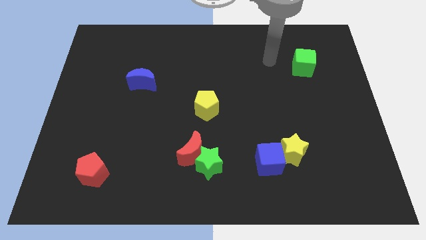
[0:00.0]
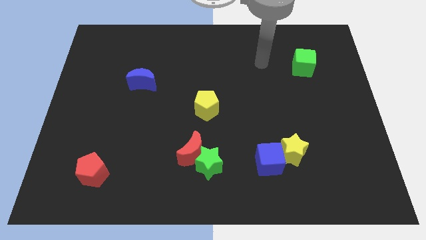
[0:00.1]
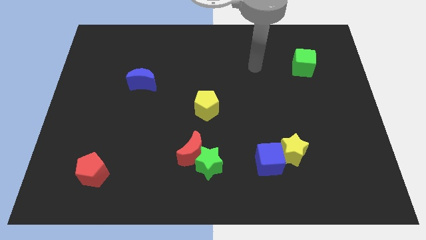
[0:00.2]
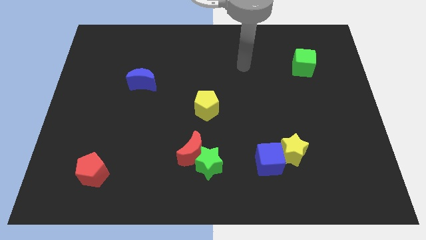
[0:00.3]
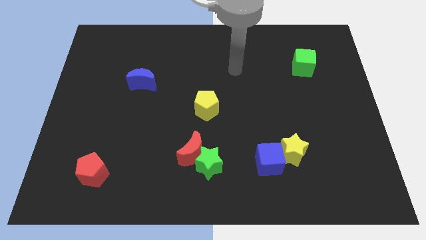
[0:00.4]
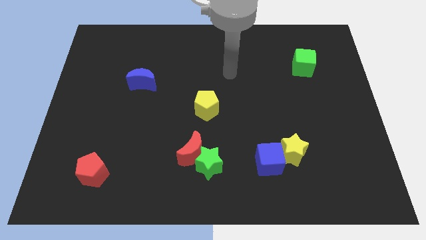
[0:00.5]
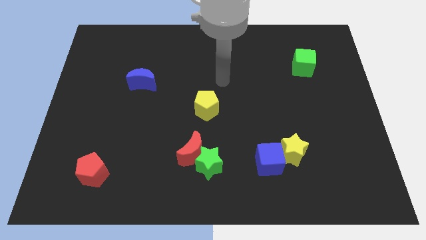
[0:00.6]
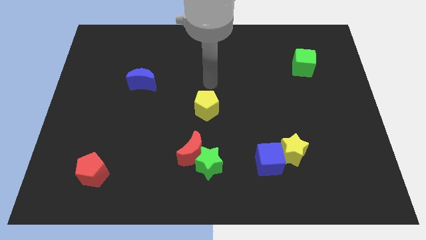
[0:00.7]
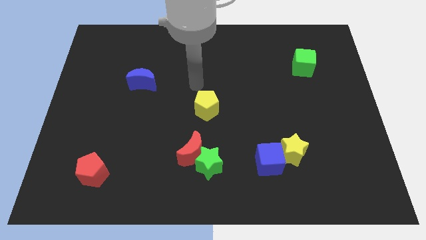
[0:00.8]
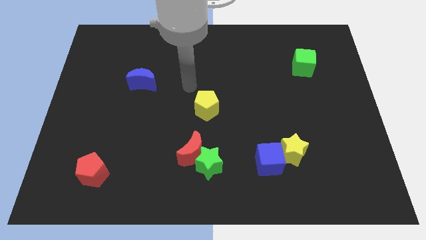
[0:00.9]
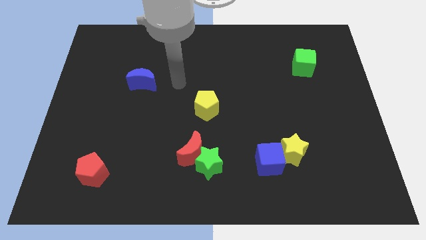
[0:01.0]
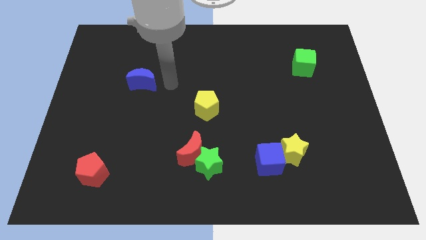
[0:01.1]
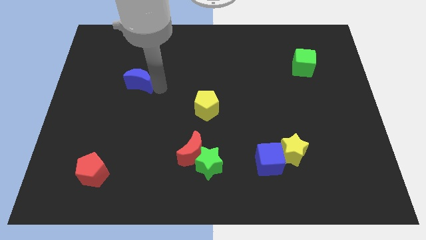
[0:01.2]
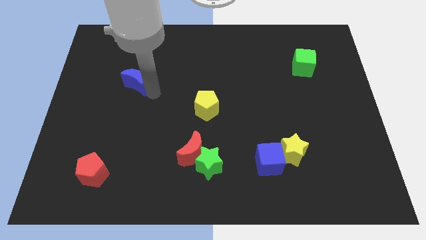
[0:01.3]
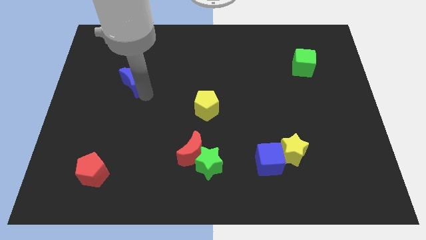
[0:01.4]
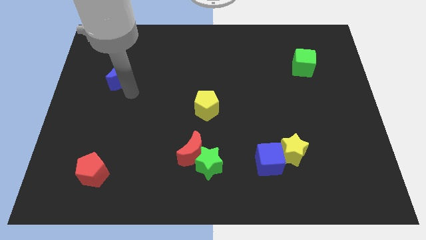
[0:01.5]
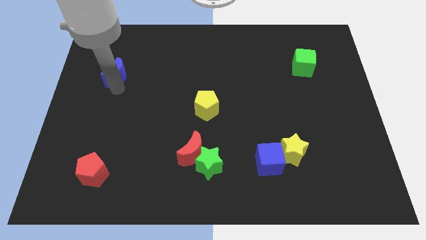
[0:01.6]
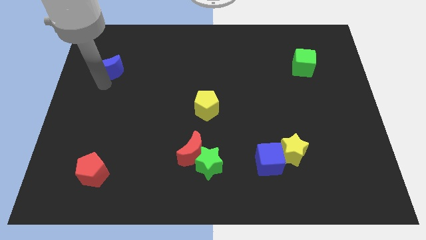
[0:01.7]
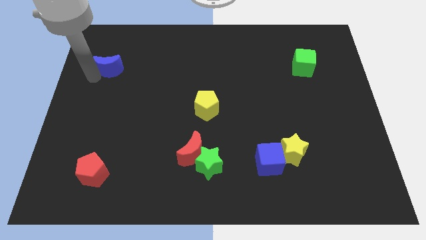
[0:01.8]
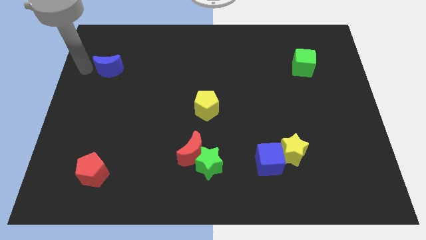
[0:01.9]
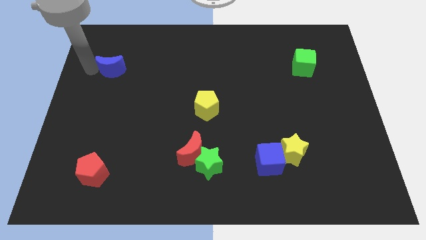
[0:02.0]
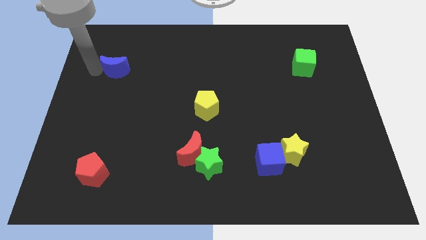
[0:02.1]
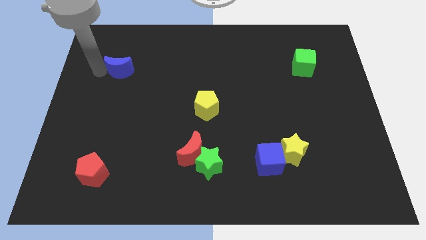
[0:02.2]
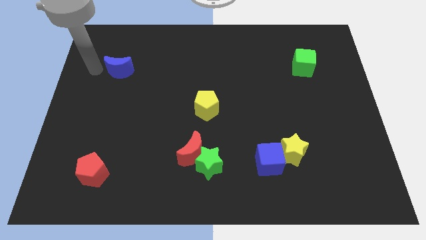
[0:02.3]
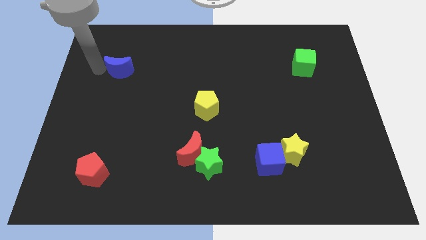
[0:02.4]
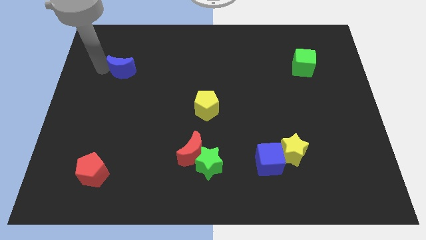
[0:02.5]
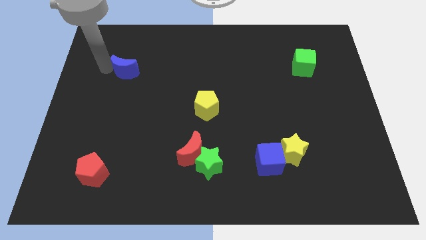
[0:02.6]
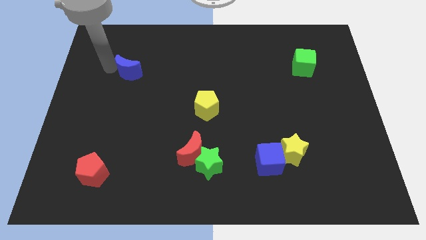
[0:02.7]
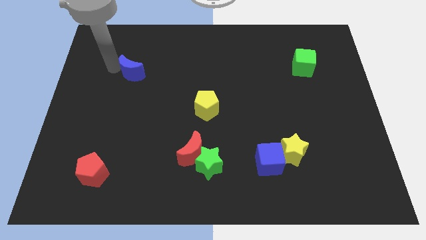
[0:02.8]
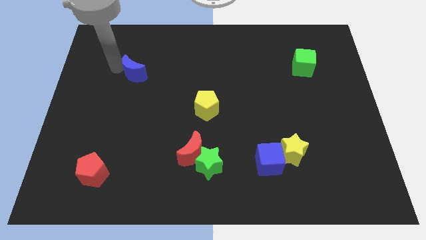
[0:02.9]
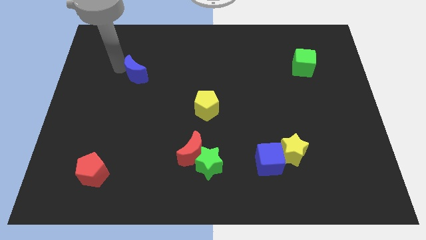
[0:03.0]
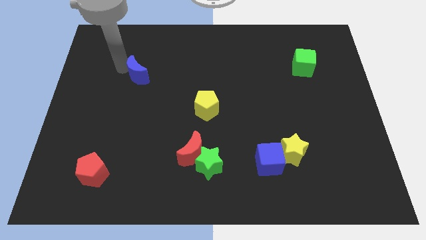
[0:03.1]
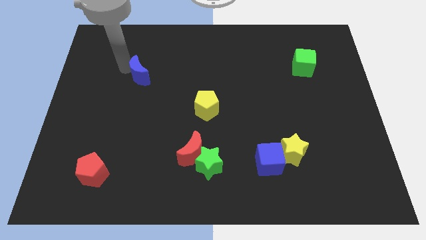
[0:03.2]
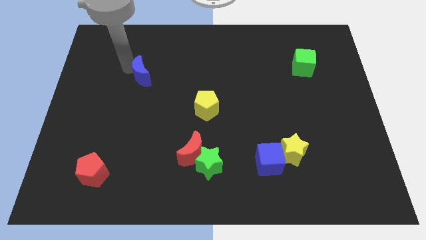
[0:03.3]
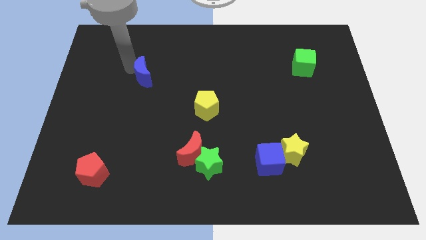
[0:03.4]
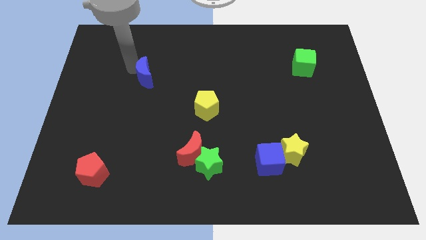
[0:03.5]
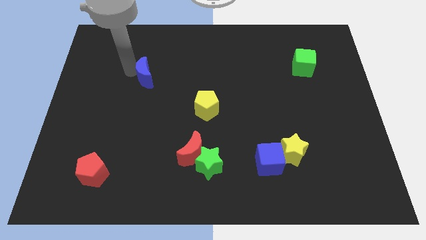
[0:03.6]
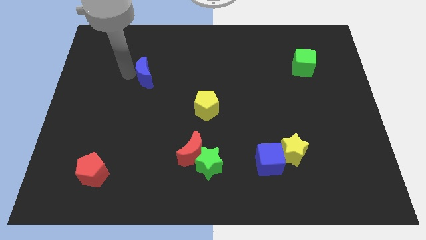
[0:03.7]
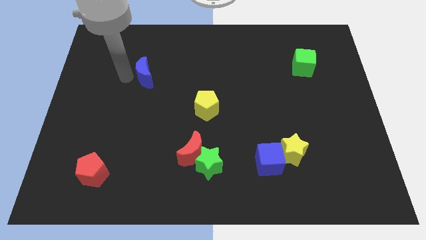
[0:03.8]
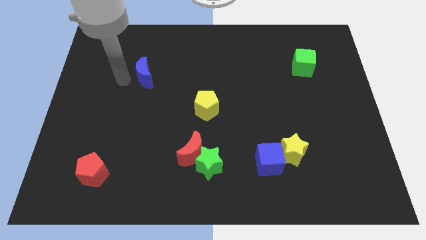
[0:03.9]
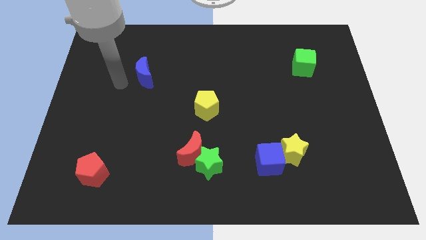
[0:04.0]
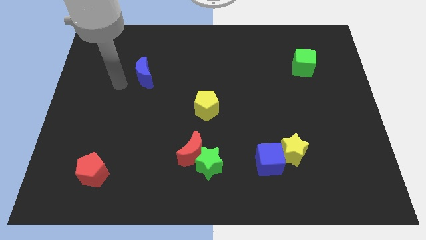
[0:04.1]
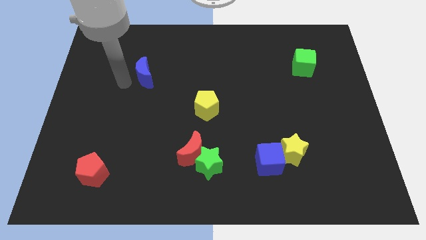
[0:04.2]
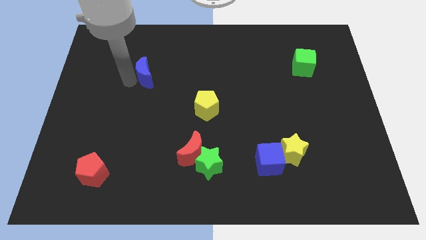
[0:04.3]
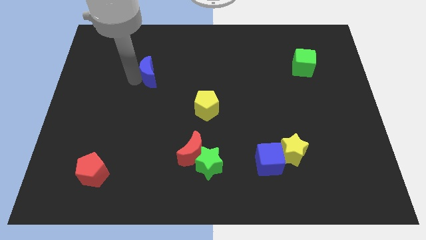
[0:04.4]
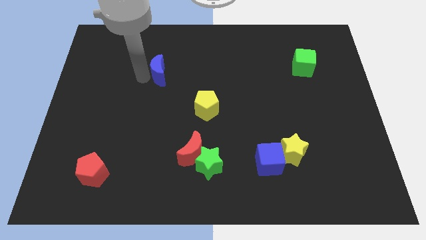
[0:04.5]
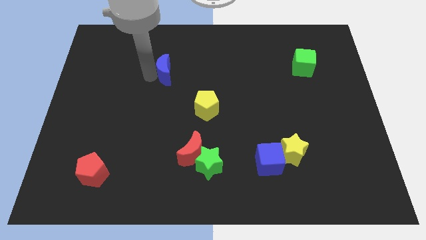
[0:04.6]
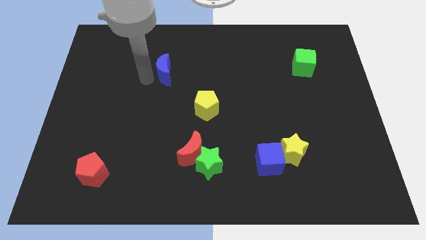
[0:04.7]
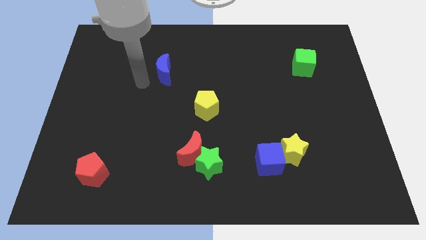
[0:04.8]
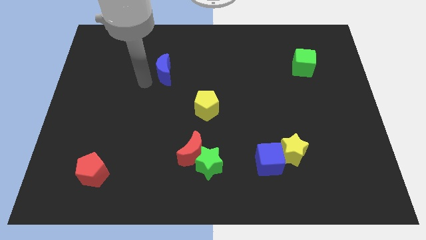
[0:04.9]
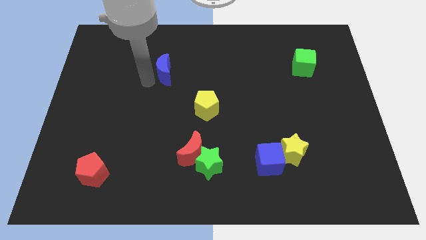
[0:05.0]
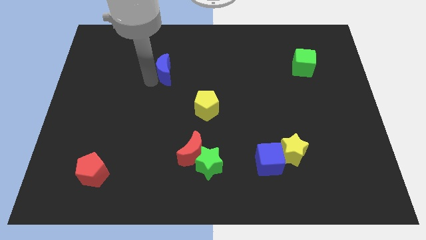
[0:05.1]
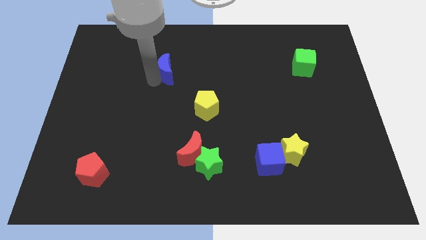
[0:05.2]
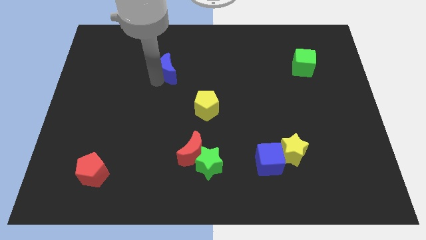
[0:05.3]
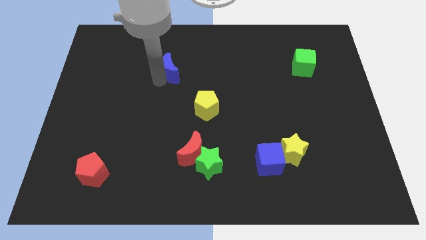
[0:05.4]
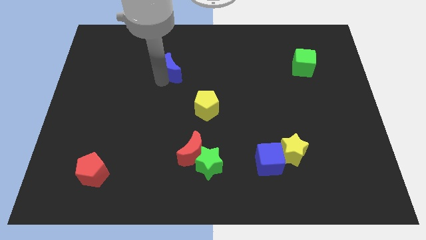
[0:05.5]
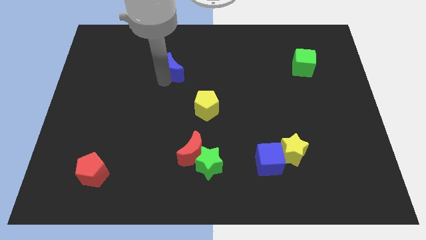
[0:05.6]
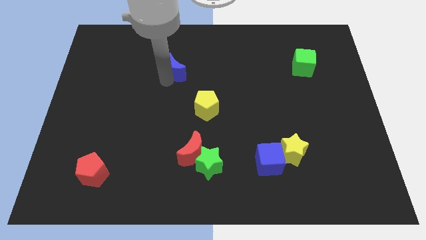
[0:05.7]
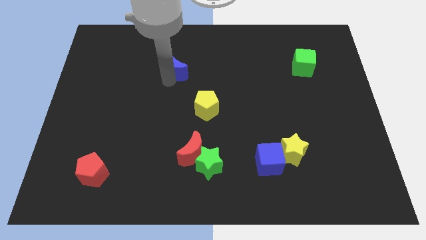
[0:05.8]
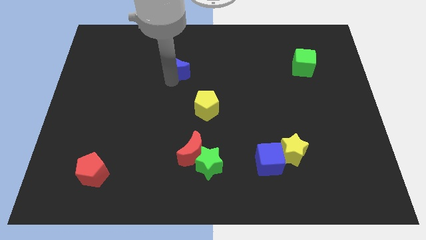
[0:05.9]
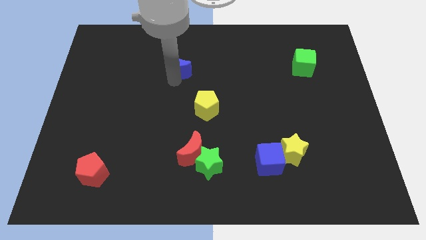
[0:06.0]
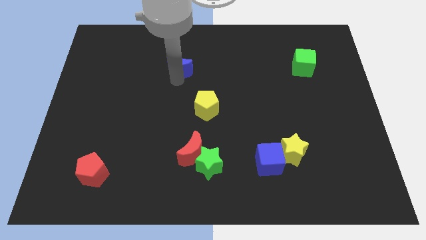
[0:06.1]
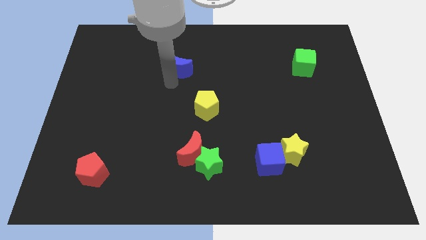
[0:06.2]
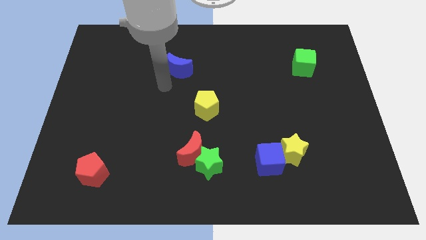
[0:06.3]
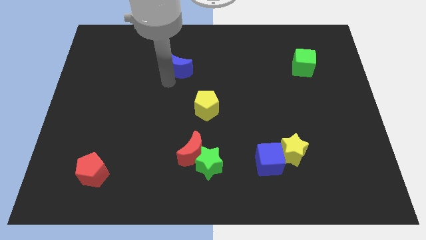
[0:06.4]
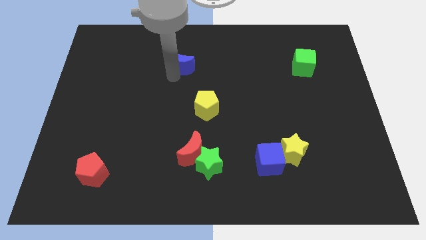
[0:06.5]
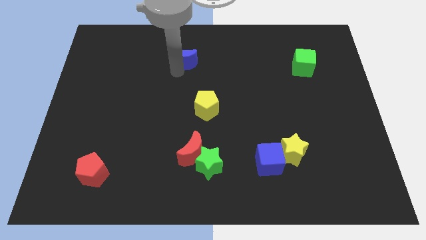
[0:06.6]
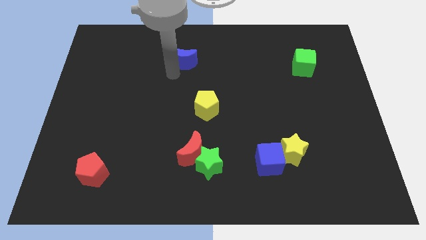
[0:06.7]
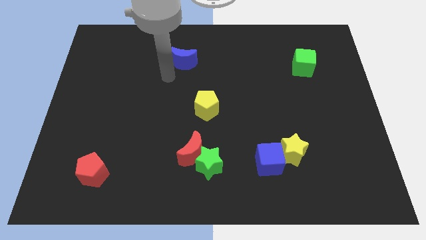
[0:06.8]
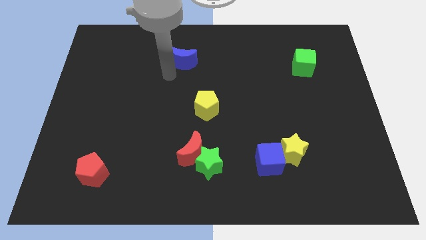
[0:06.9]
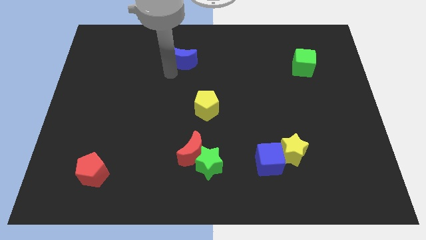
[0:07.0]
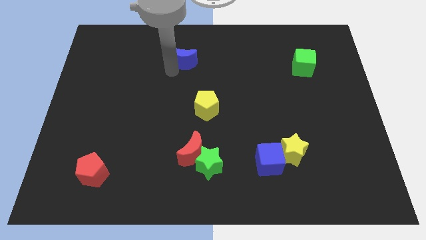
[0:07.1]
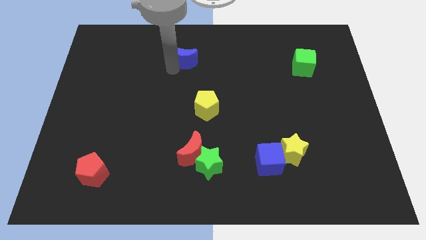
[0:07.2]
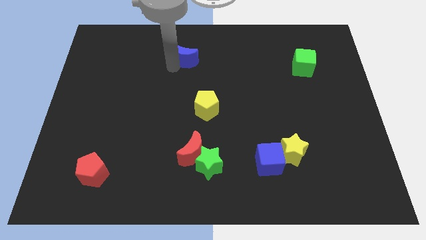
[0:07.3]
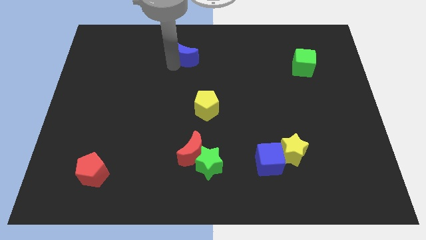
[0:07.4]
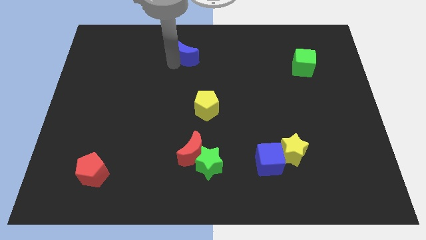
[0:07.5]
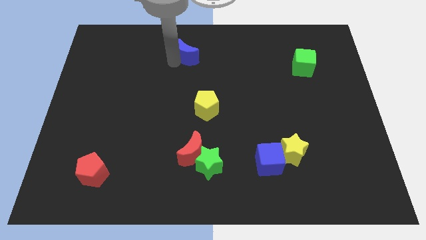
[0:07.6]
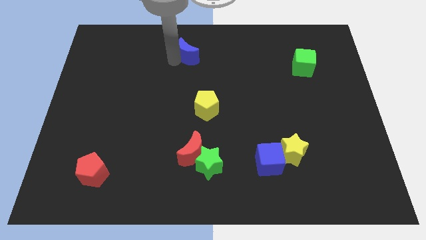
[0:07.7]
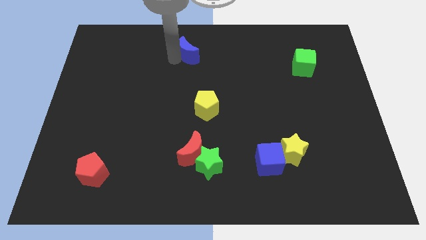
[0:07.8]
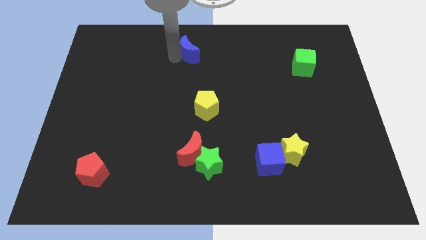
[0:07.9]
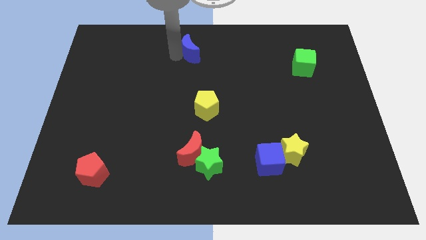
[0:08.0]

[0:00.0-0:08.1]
push the blue moon to the top
